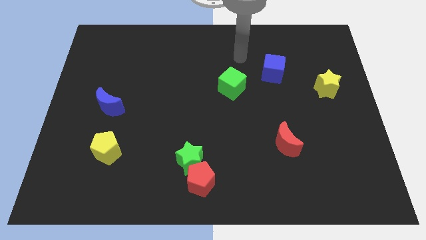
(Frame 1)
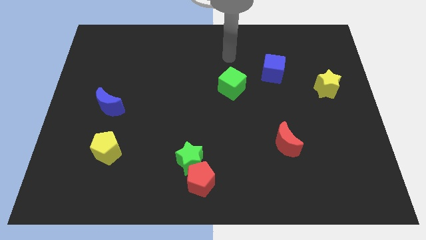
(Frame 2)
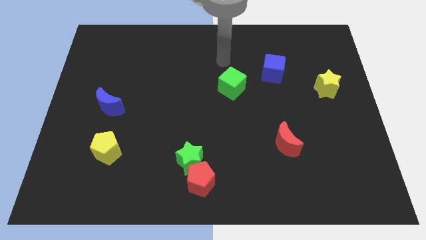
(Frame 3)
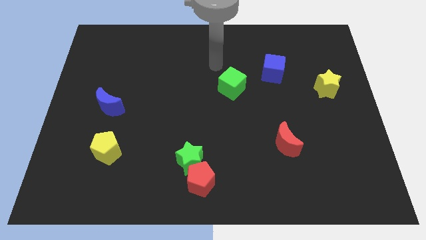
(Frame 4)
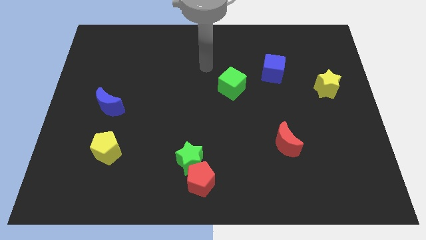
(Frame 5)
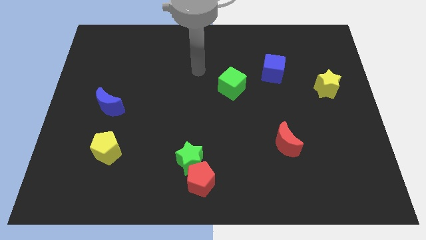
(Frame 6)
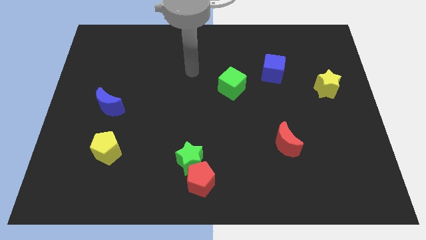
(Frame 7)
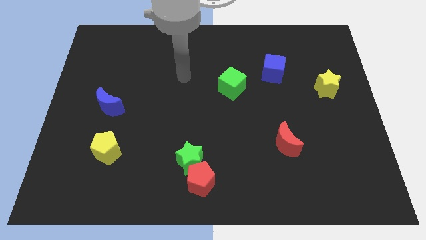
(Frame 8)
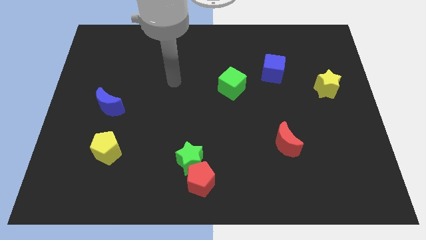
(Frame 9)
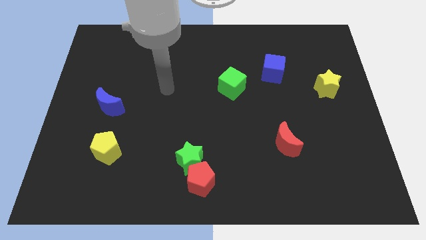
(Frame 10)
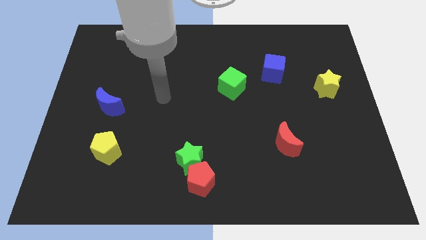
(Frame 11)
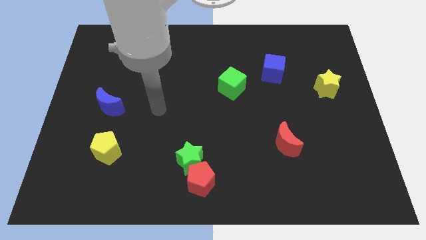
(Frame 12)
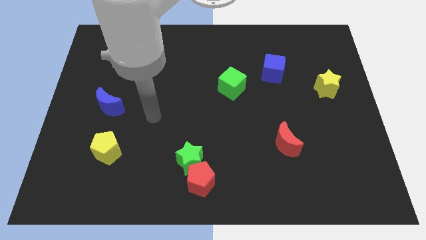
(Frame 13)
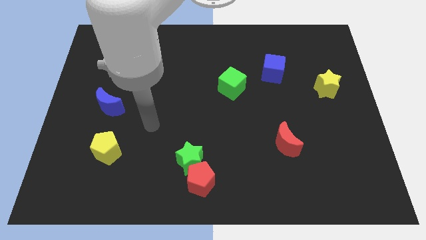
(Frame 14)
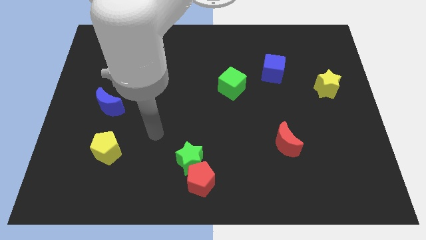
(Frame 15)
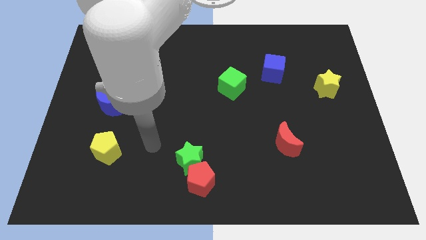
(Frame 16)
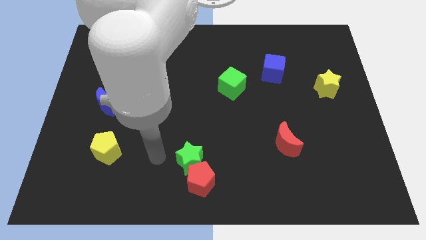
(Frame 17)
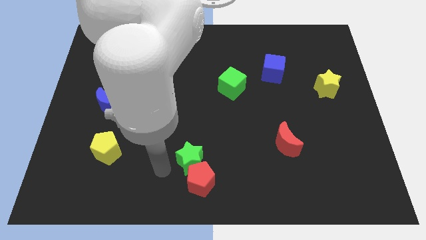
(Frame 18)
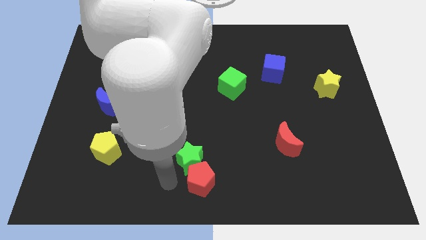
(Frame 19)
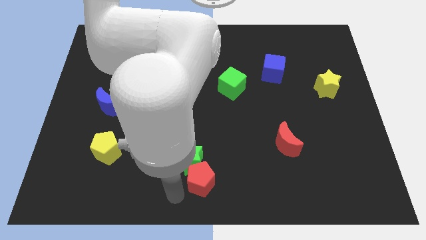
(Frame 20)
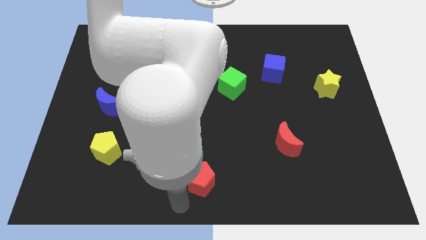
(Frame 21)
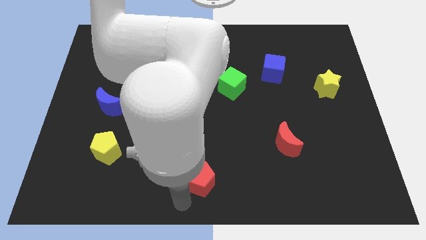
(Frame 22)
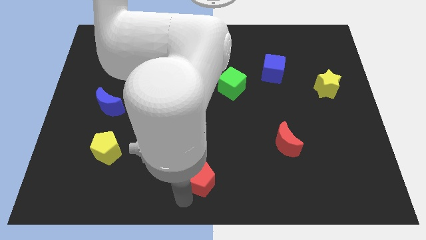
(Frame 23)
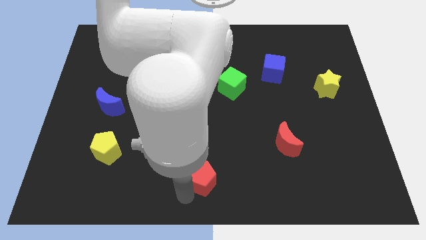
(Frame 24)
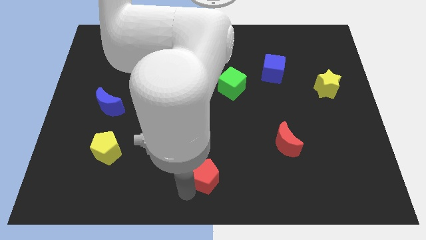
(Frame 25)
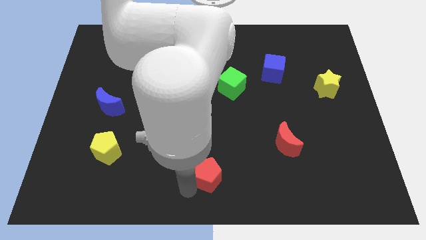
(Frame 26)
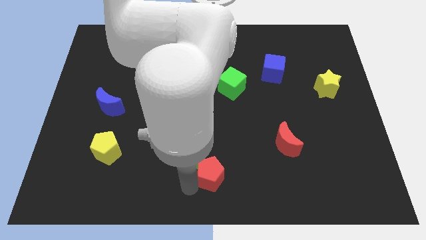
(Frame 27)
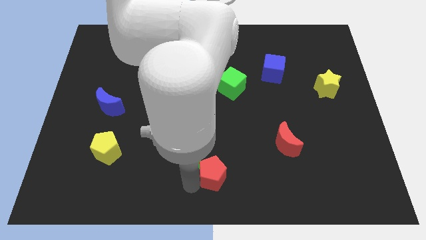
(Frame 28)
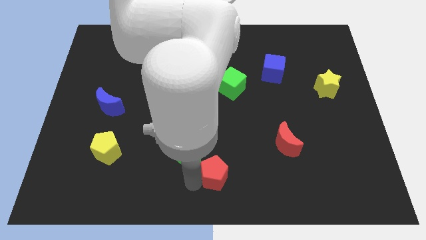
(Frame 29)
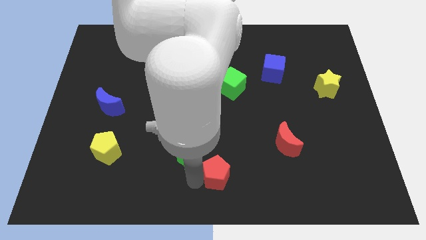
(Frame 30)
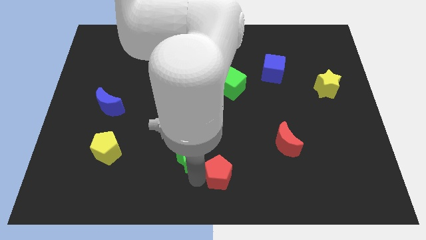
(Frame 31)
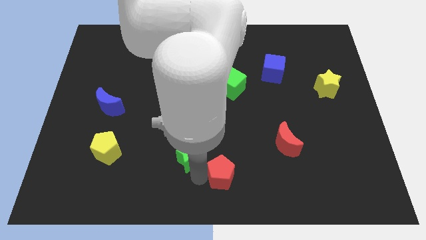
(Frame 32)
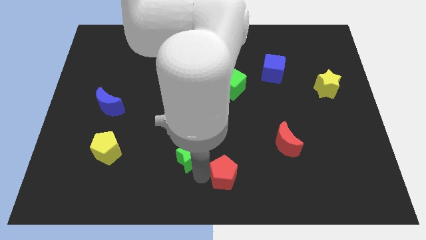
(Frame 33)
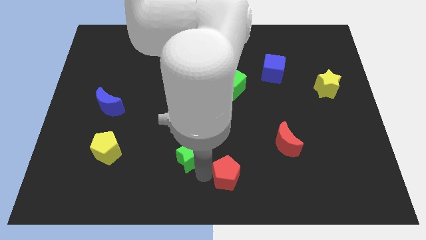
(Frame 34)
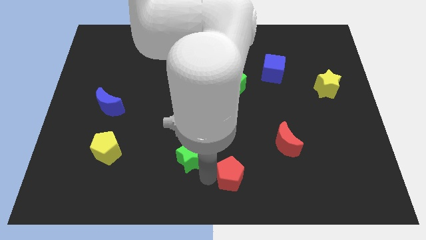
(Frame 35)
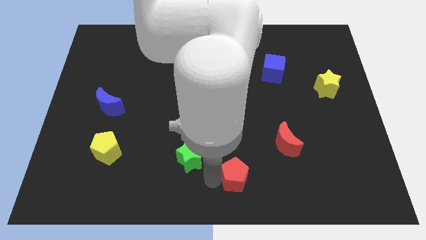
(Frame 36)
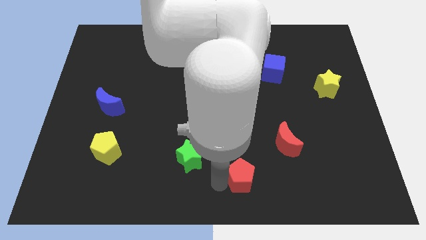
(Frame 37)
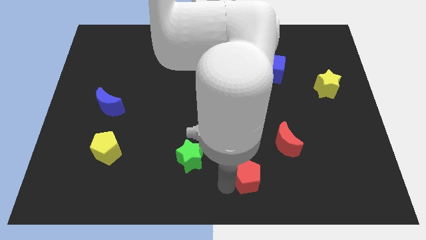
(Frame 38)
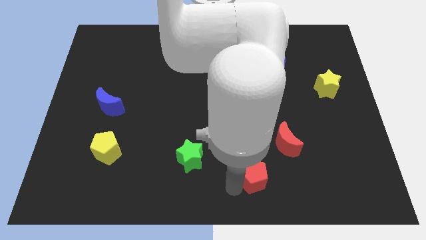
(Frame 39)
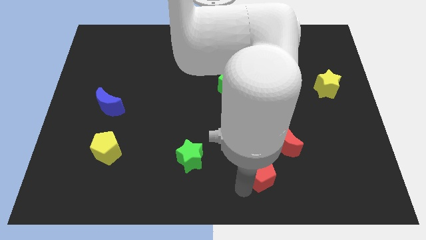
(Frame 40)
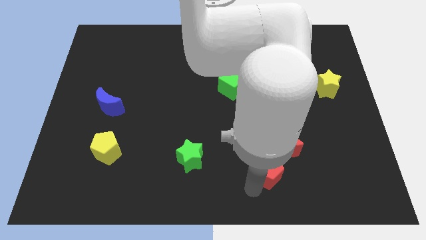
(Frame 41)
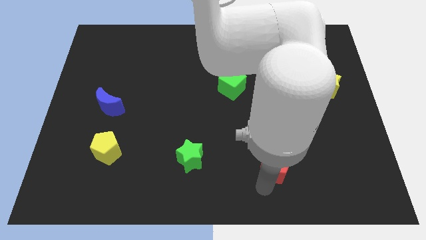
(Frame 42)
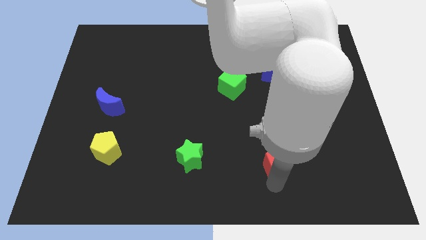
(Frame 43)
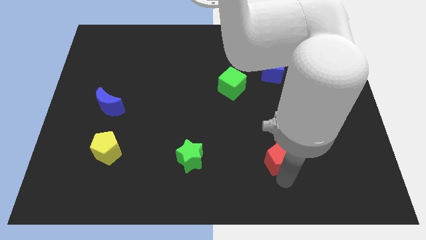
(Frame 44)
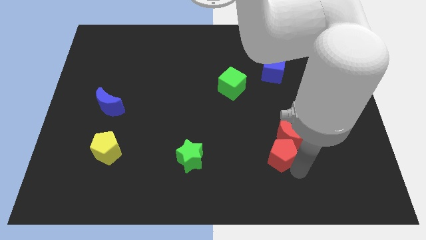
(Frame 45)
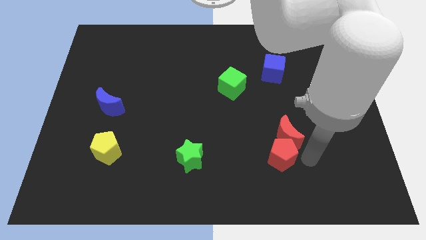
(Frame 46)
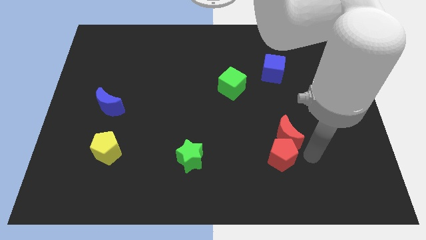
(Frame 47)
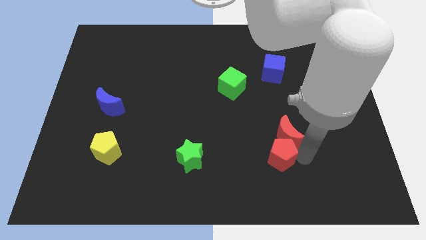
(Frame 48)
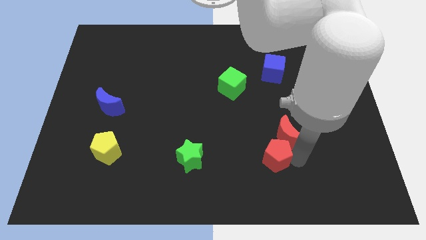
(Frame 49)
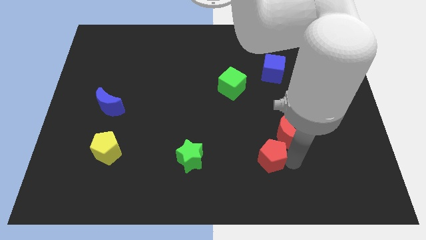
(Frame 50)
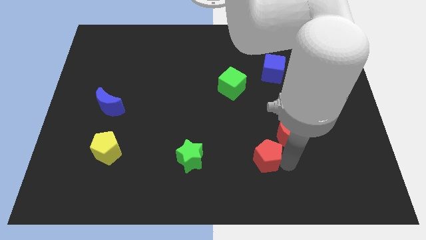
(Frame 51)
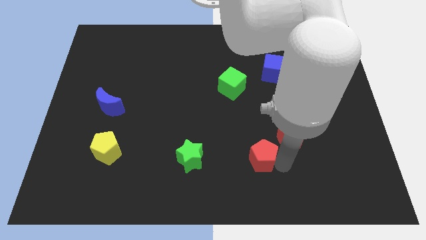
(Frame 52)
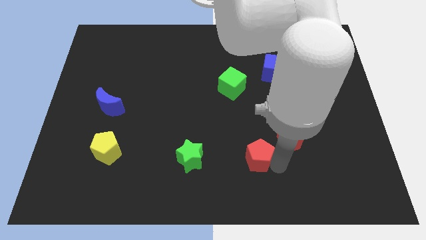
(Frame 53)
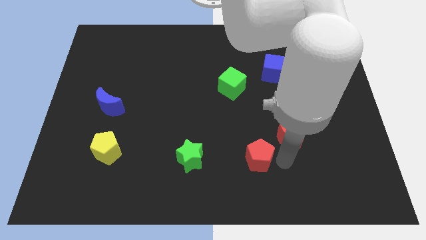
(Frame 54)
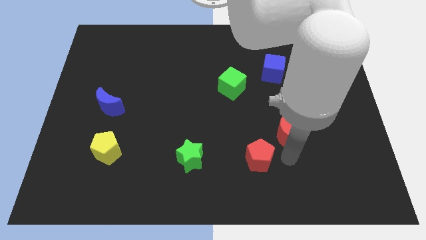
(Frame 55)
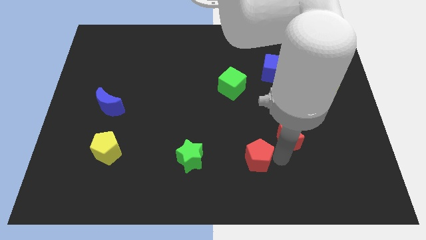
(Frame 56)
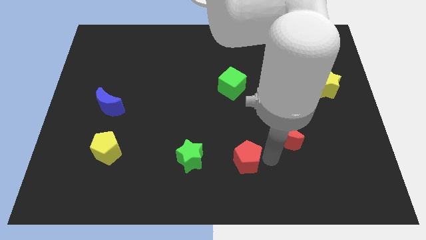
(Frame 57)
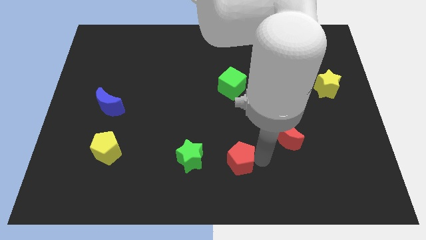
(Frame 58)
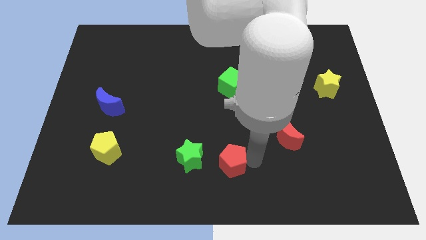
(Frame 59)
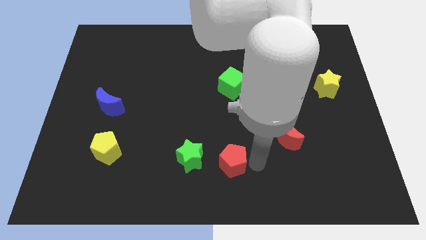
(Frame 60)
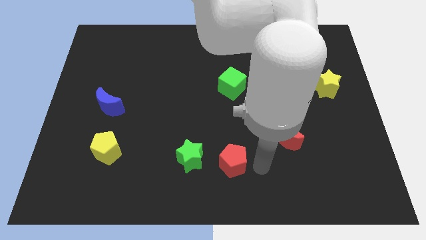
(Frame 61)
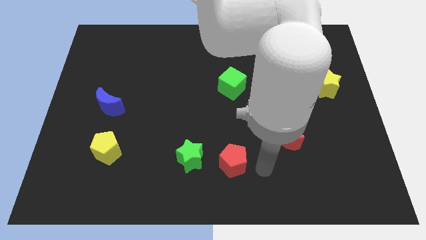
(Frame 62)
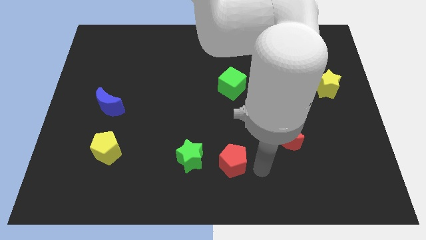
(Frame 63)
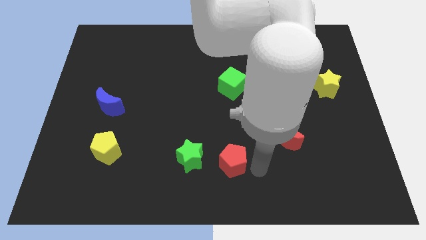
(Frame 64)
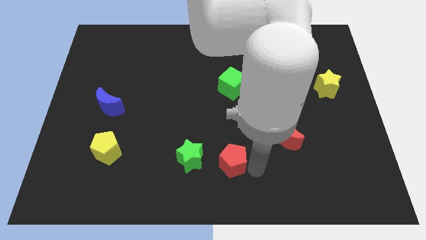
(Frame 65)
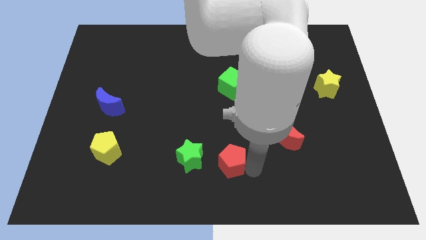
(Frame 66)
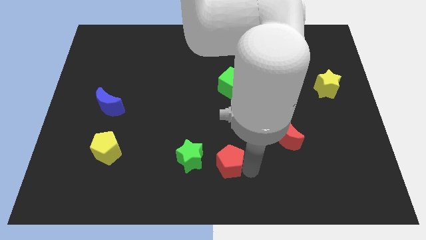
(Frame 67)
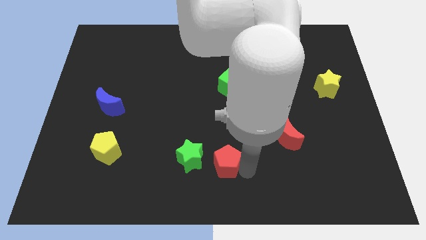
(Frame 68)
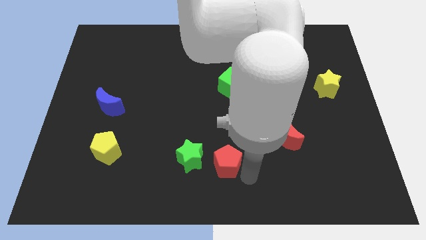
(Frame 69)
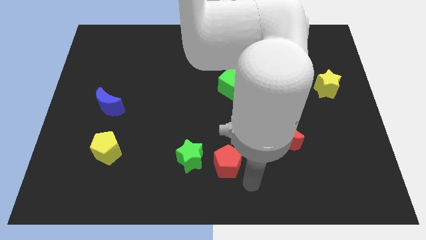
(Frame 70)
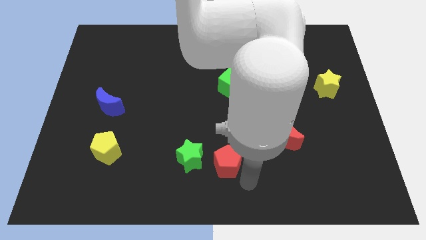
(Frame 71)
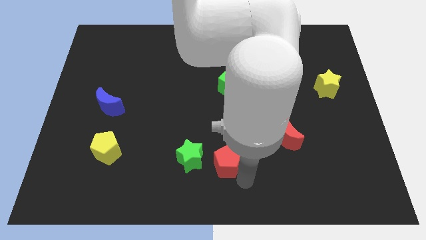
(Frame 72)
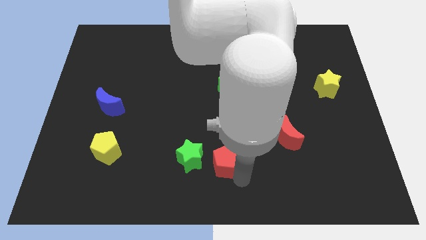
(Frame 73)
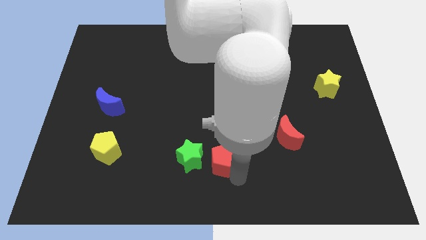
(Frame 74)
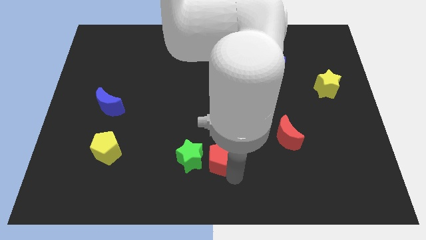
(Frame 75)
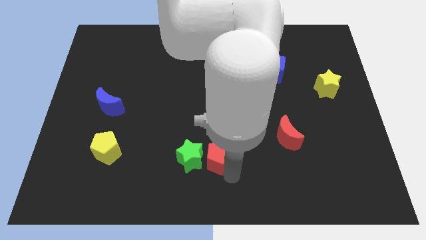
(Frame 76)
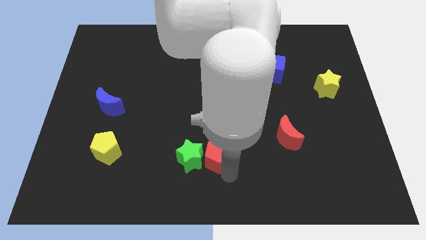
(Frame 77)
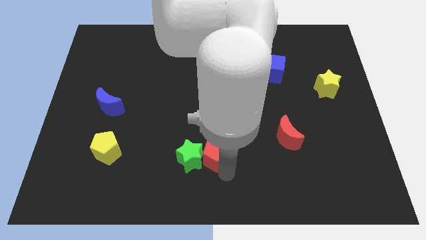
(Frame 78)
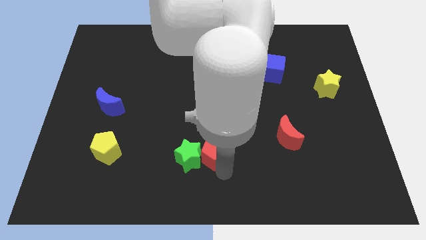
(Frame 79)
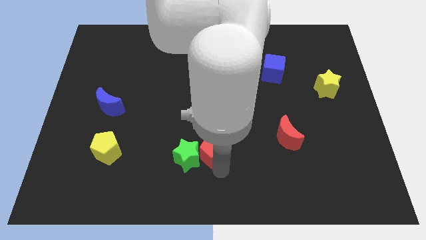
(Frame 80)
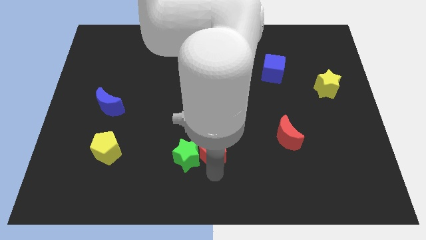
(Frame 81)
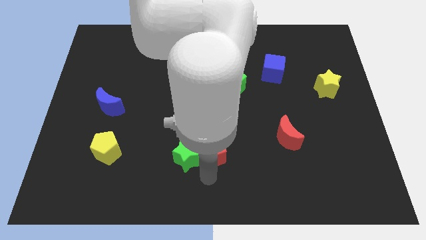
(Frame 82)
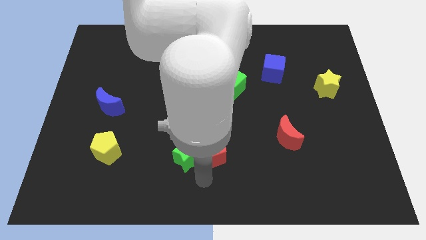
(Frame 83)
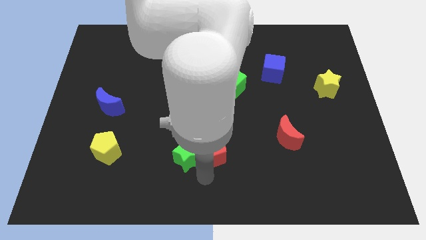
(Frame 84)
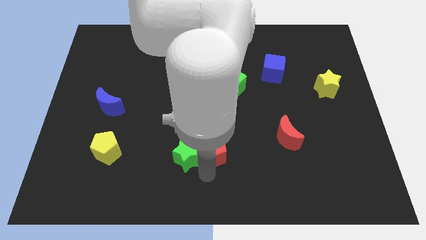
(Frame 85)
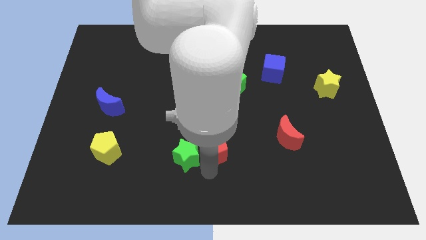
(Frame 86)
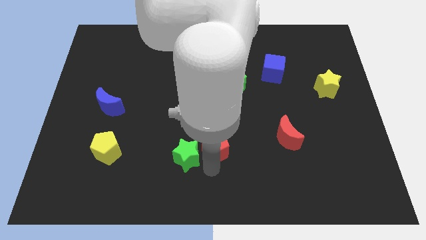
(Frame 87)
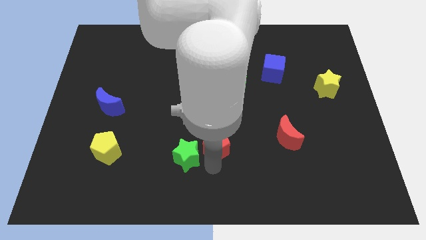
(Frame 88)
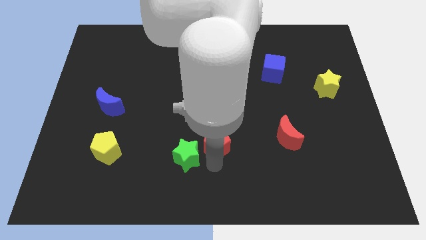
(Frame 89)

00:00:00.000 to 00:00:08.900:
put the red pentagon to the middle
